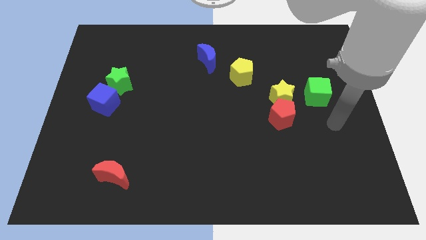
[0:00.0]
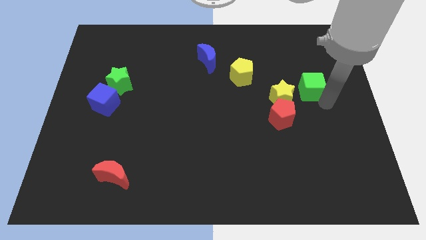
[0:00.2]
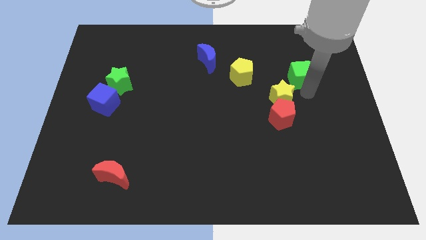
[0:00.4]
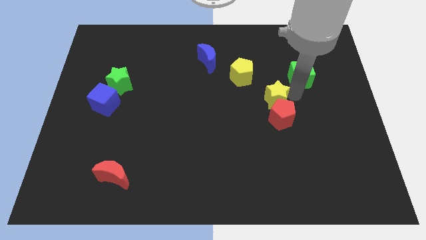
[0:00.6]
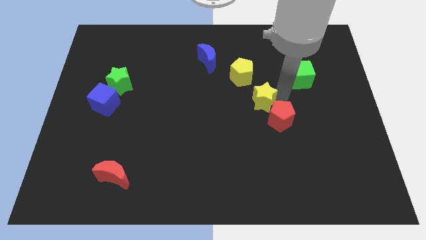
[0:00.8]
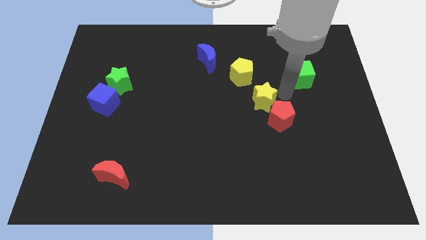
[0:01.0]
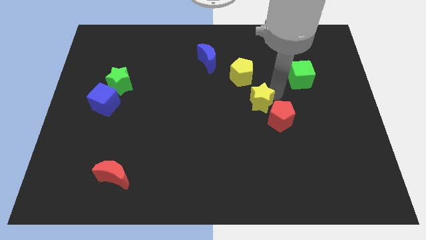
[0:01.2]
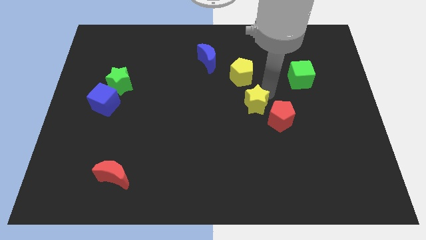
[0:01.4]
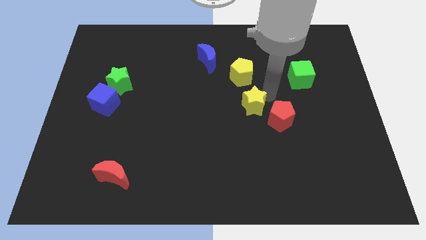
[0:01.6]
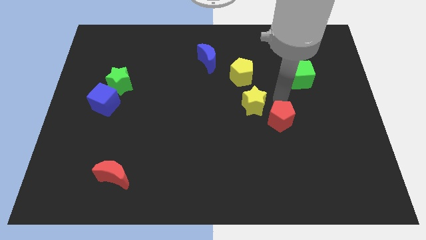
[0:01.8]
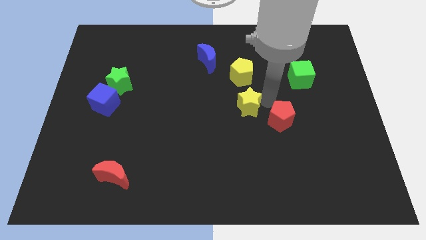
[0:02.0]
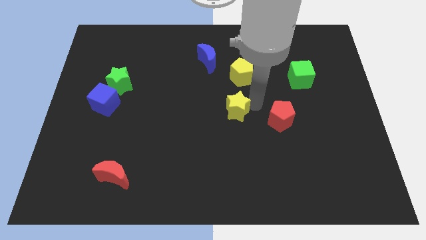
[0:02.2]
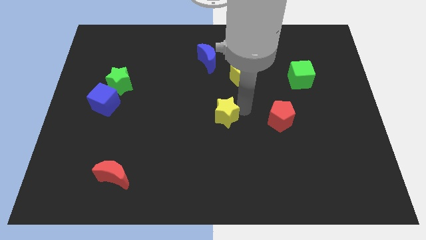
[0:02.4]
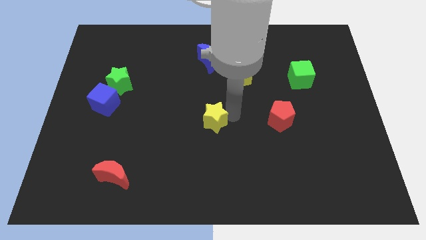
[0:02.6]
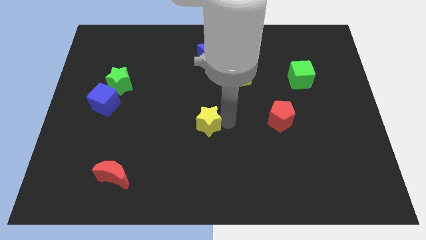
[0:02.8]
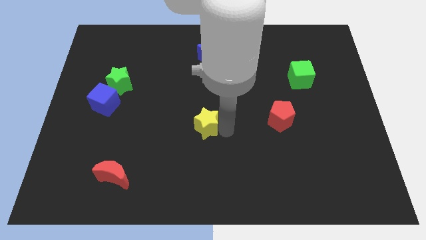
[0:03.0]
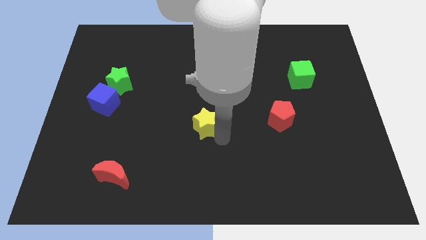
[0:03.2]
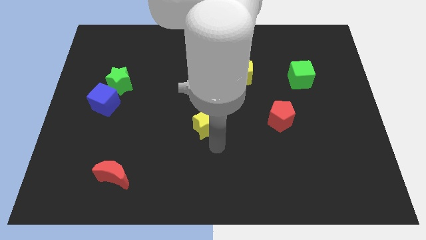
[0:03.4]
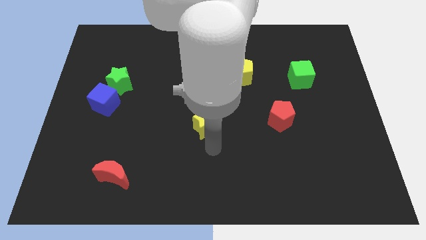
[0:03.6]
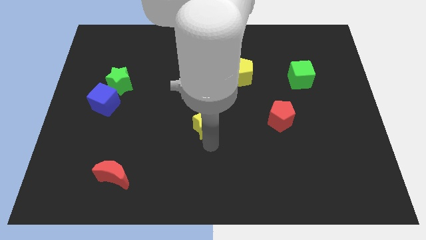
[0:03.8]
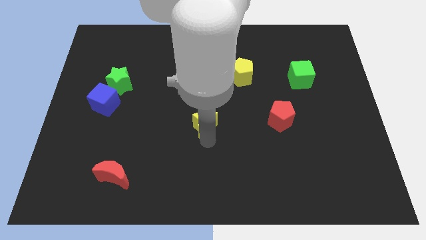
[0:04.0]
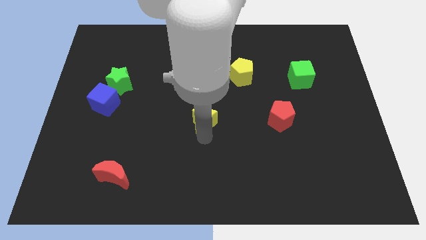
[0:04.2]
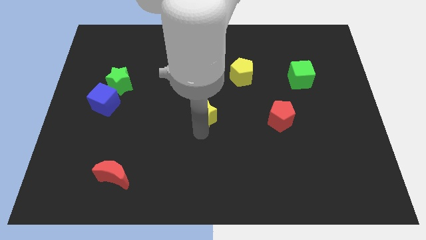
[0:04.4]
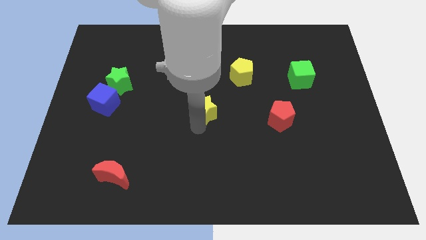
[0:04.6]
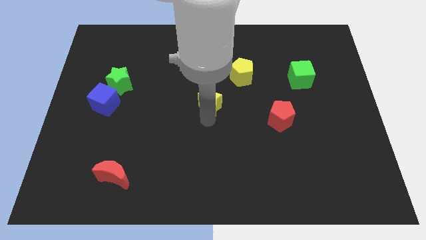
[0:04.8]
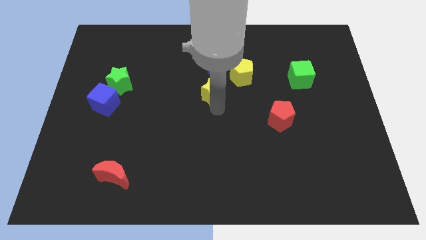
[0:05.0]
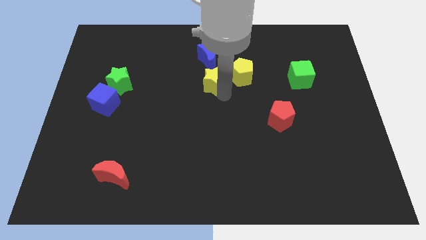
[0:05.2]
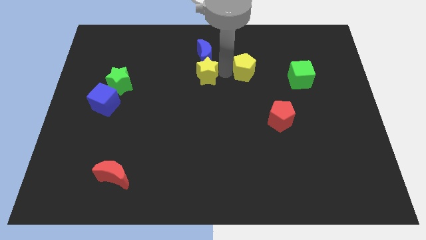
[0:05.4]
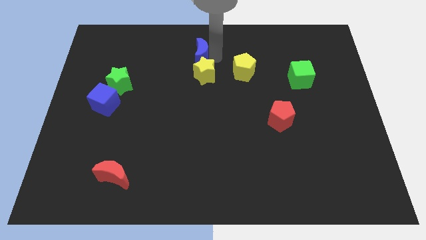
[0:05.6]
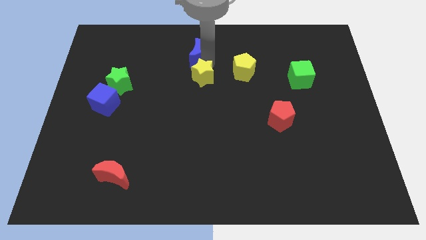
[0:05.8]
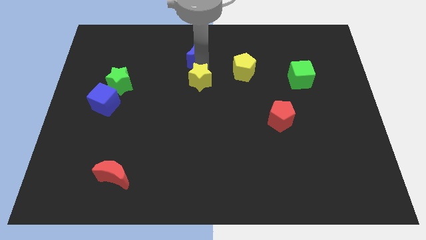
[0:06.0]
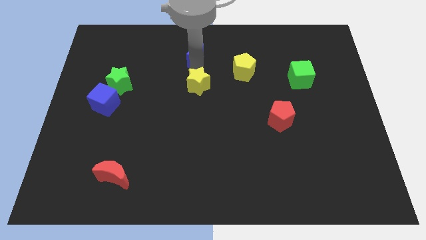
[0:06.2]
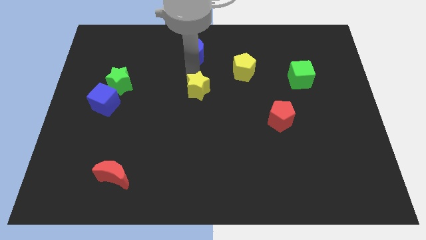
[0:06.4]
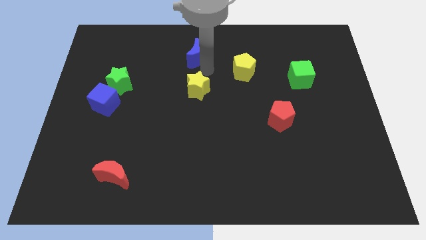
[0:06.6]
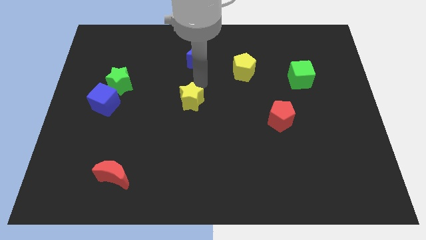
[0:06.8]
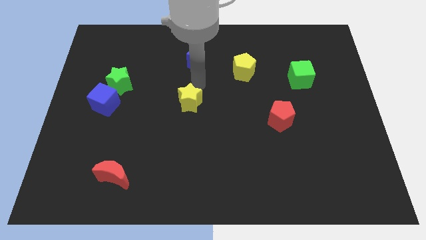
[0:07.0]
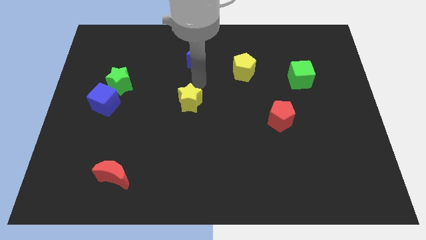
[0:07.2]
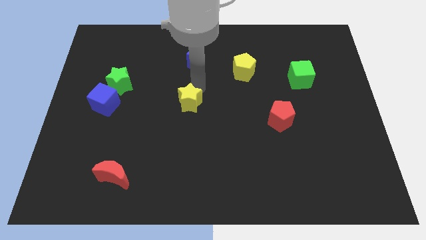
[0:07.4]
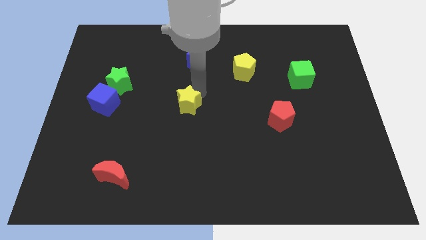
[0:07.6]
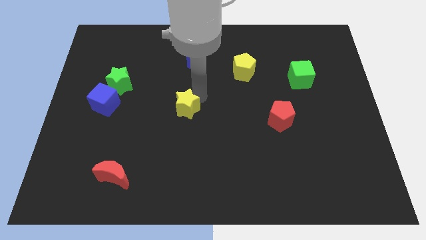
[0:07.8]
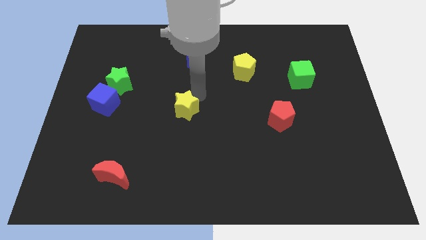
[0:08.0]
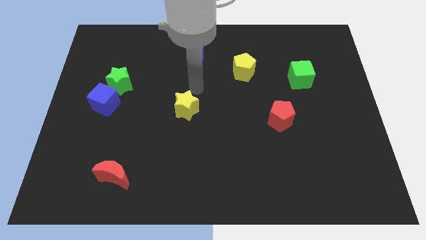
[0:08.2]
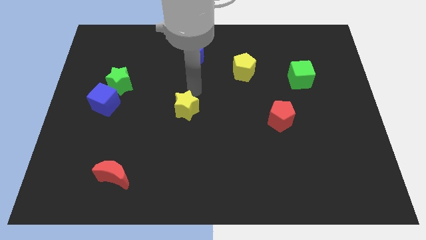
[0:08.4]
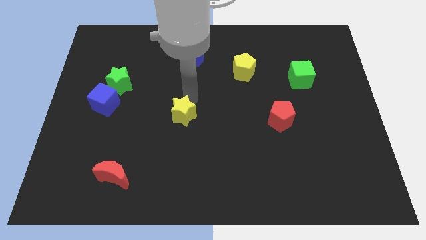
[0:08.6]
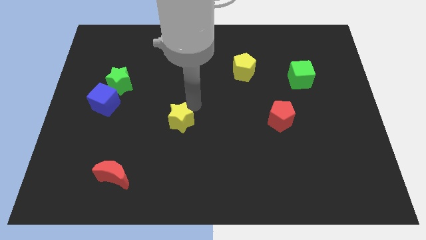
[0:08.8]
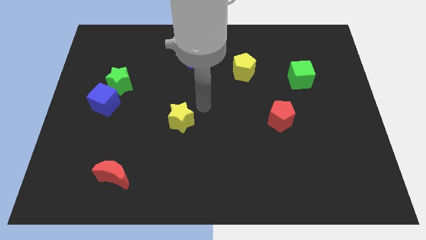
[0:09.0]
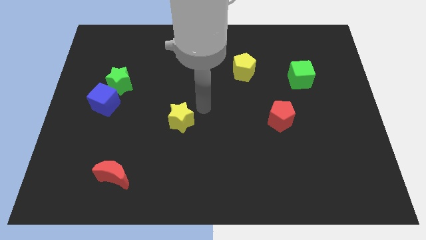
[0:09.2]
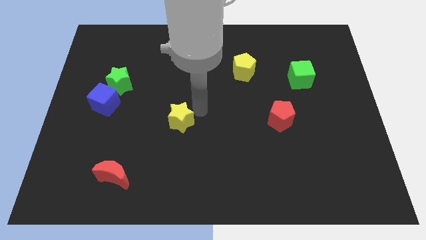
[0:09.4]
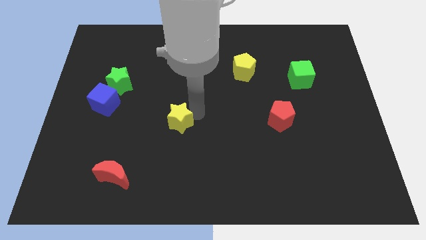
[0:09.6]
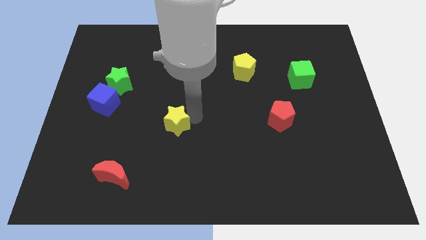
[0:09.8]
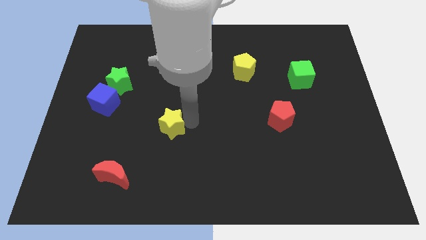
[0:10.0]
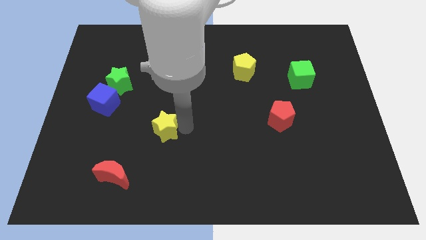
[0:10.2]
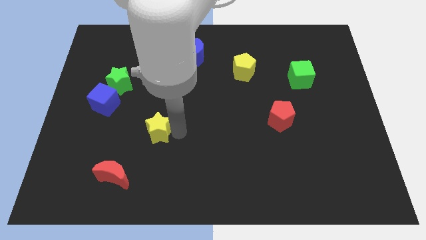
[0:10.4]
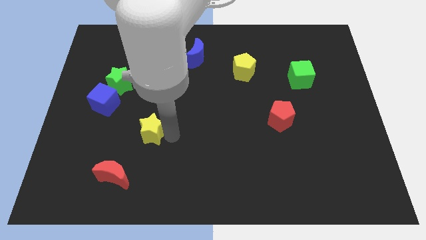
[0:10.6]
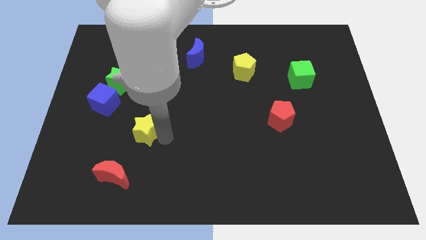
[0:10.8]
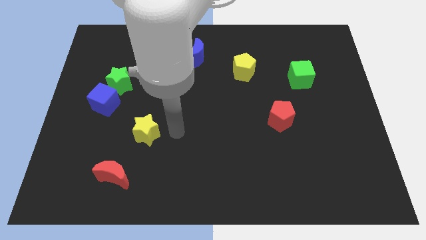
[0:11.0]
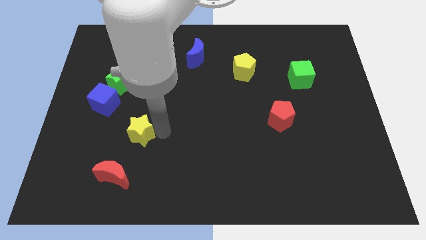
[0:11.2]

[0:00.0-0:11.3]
slide the yellow star to the top of the red moon

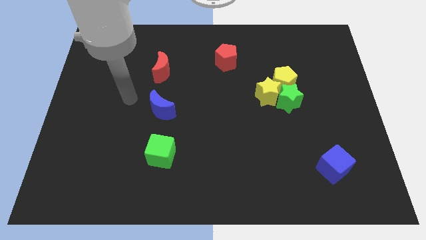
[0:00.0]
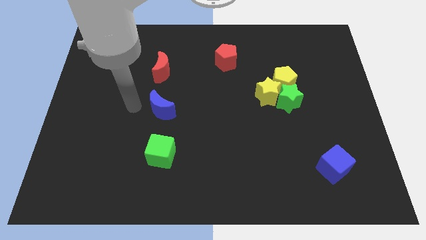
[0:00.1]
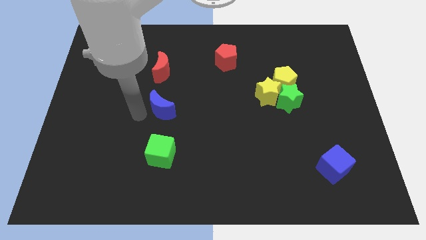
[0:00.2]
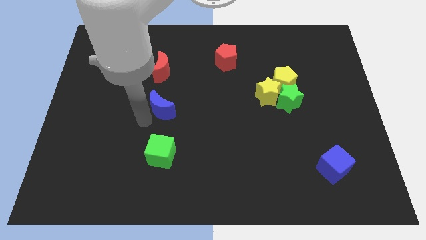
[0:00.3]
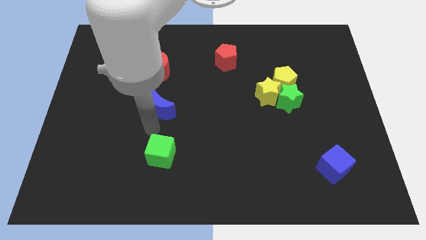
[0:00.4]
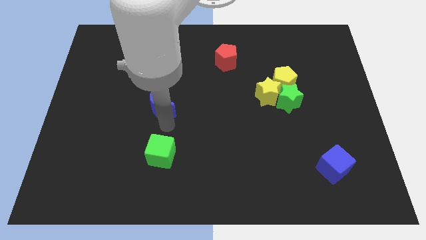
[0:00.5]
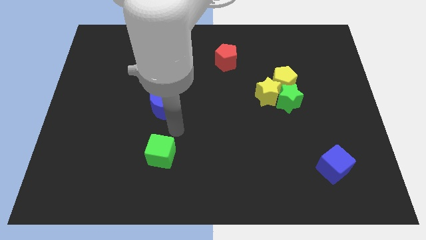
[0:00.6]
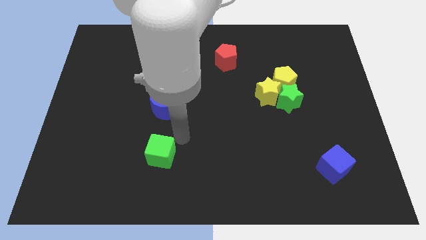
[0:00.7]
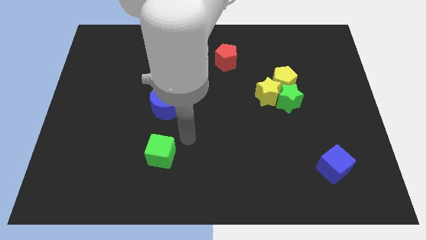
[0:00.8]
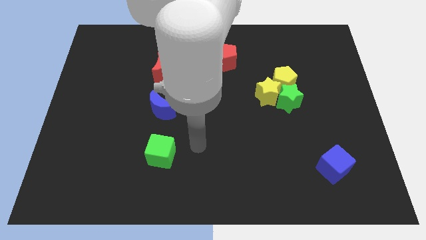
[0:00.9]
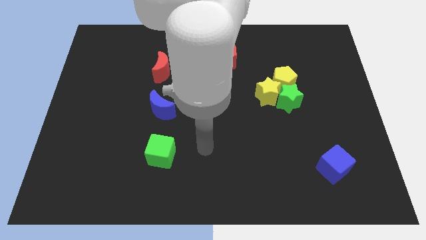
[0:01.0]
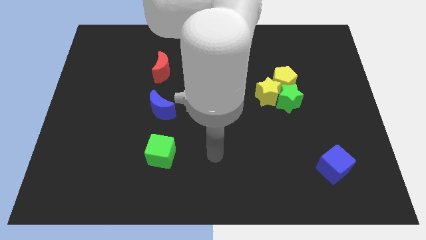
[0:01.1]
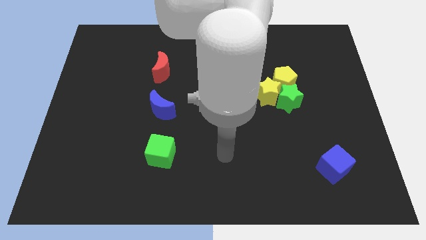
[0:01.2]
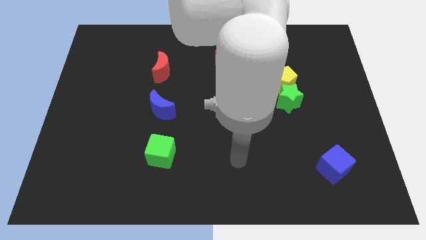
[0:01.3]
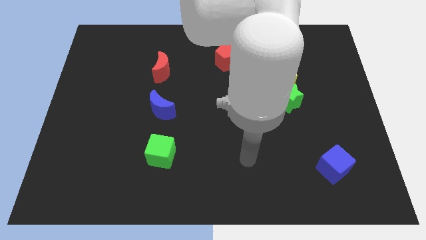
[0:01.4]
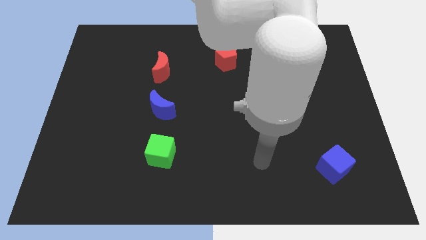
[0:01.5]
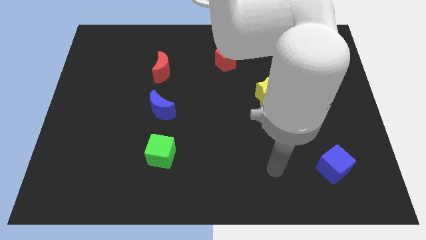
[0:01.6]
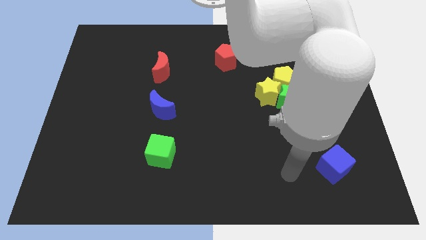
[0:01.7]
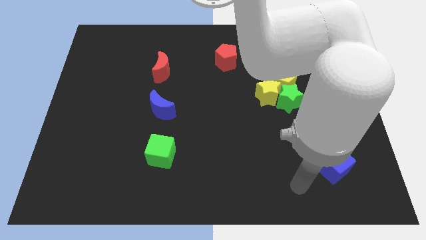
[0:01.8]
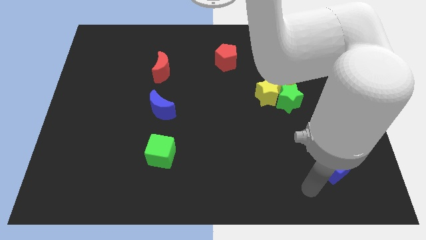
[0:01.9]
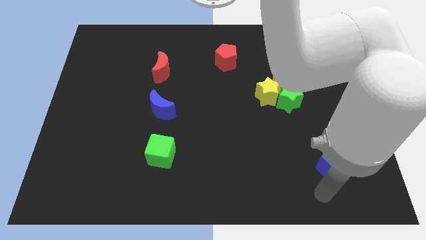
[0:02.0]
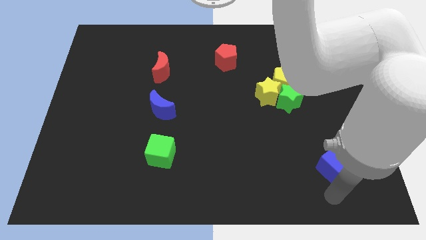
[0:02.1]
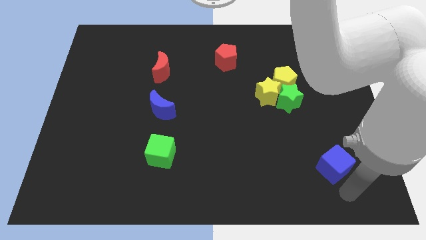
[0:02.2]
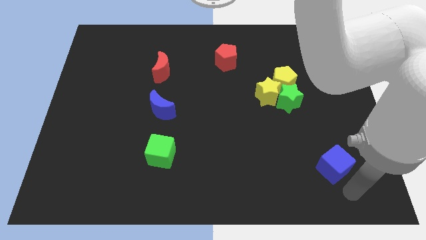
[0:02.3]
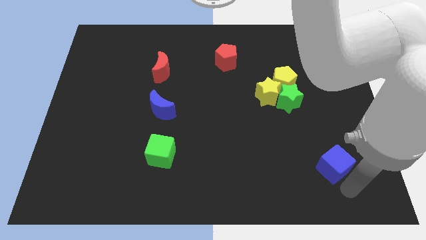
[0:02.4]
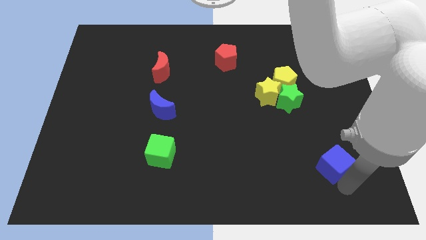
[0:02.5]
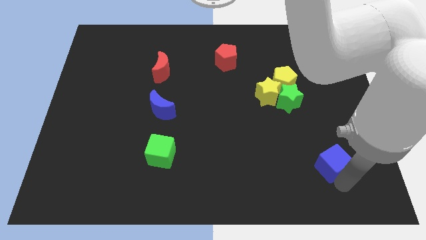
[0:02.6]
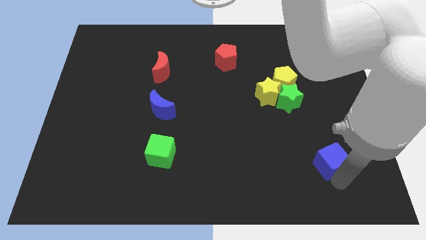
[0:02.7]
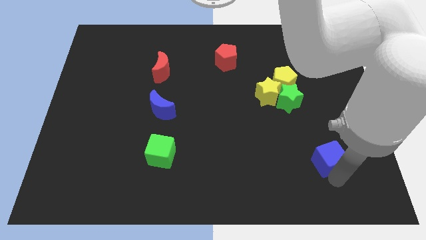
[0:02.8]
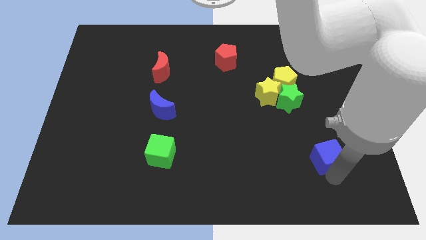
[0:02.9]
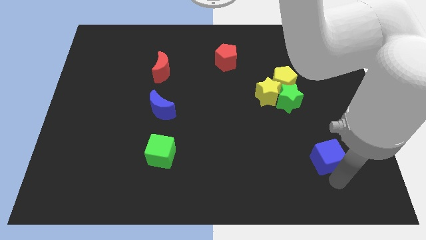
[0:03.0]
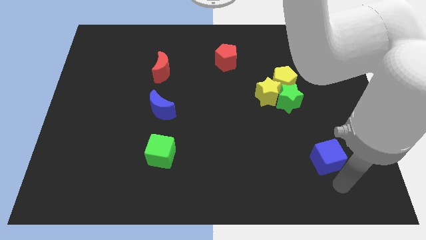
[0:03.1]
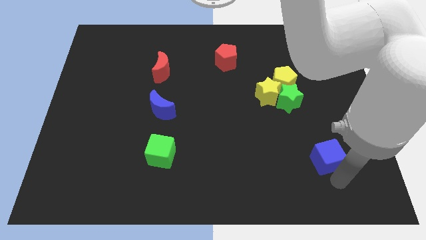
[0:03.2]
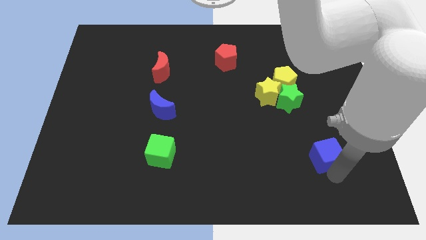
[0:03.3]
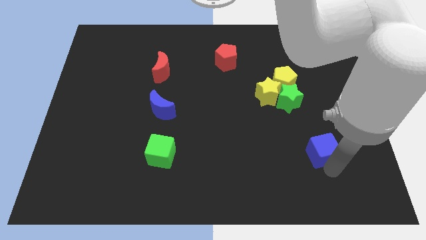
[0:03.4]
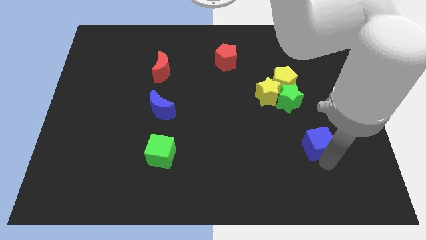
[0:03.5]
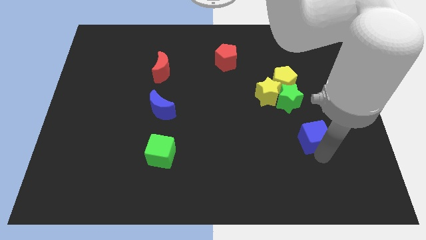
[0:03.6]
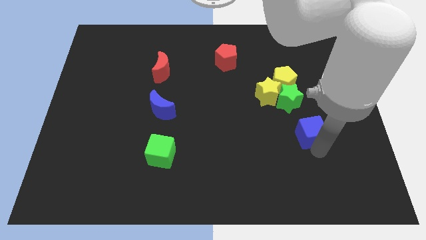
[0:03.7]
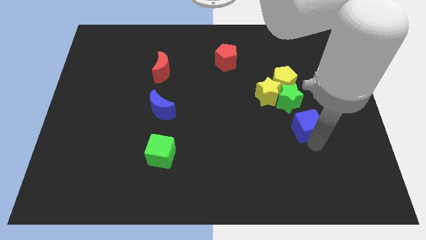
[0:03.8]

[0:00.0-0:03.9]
put the blue cube to the bottom right of the yellow star
